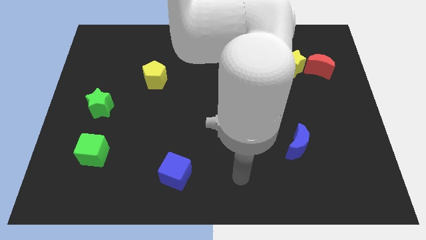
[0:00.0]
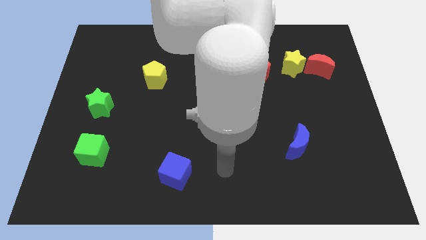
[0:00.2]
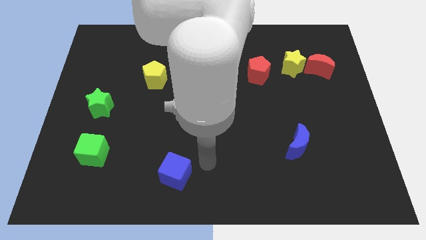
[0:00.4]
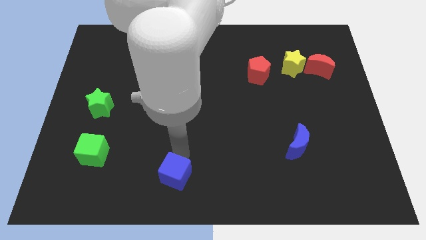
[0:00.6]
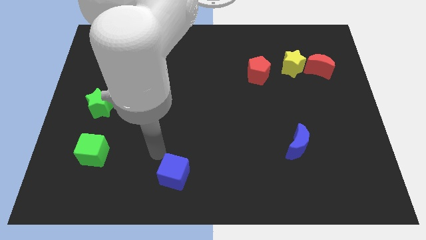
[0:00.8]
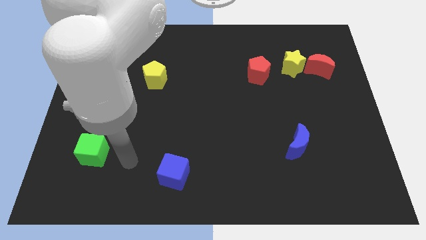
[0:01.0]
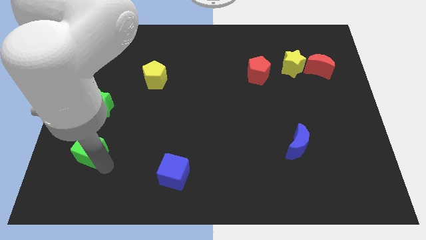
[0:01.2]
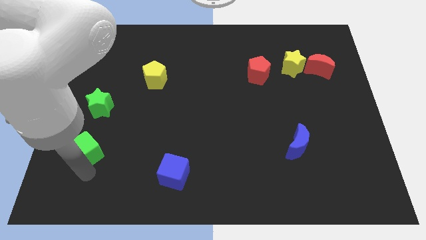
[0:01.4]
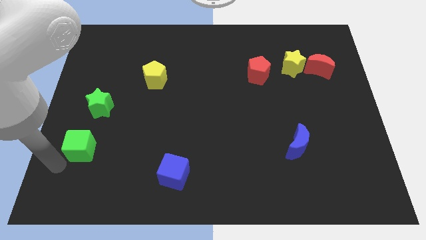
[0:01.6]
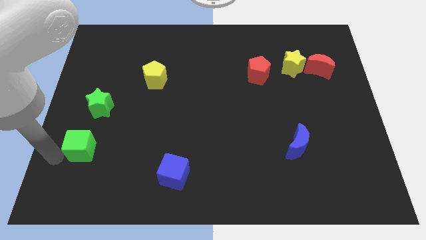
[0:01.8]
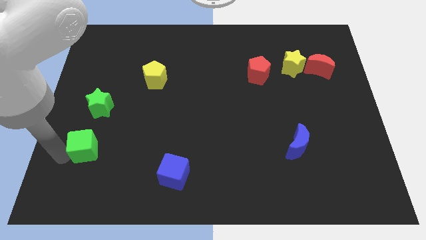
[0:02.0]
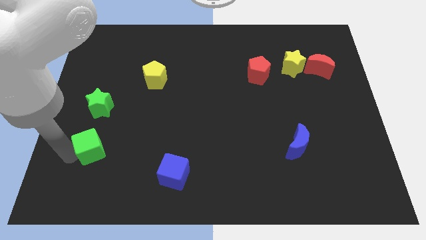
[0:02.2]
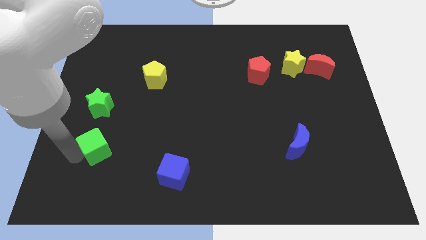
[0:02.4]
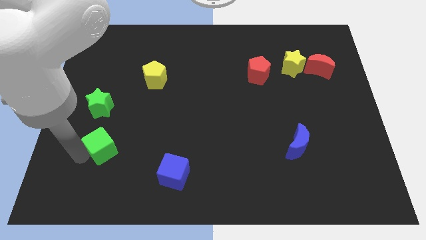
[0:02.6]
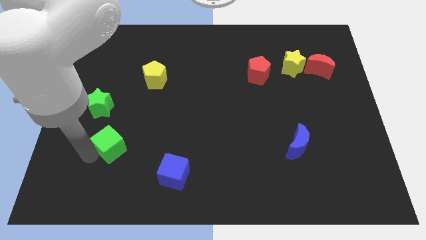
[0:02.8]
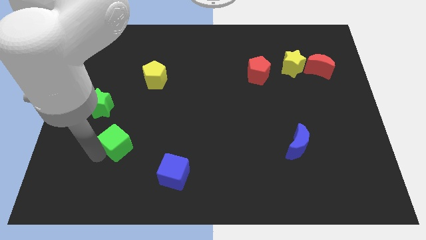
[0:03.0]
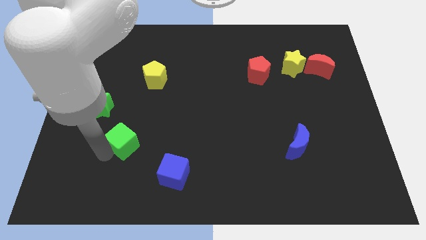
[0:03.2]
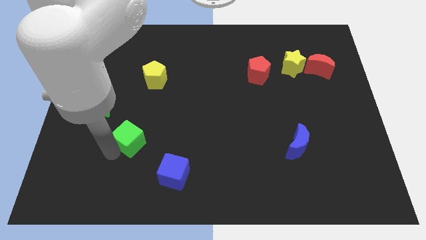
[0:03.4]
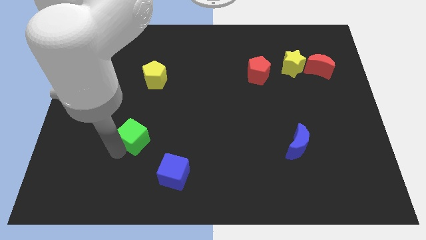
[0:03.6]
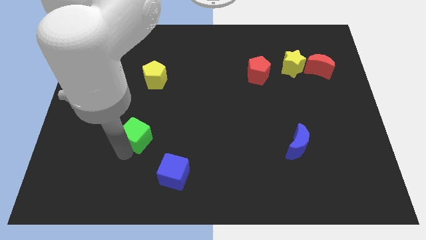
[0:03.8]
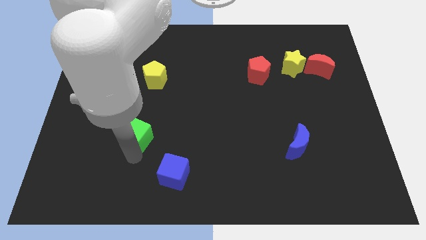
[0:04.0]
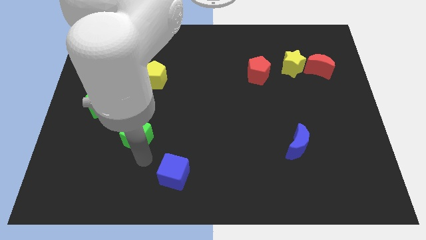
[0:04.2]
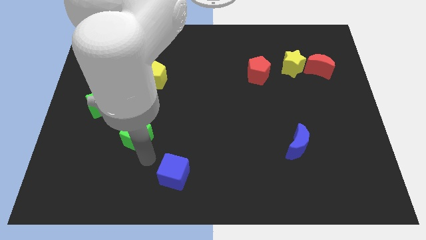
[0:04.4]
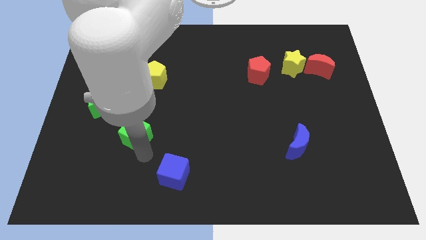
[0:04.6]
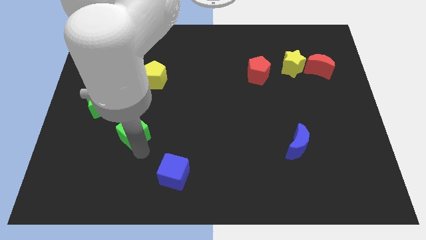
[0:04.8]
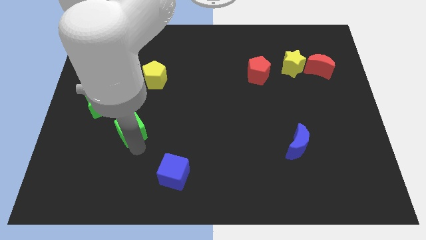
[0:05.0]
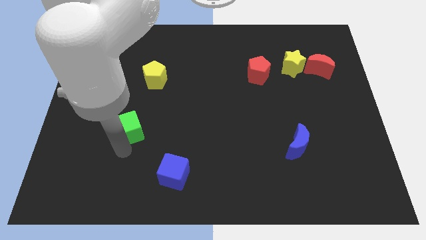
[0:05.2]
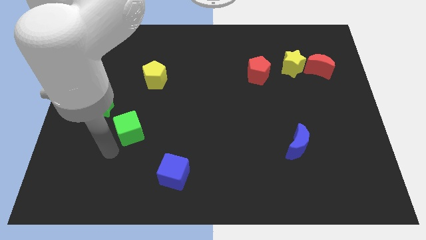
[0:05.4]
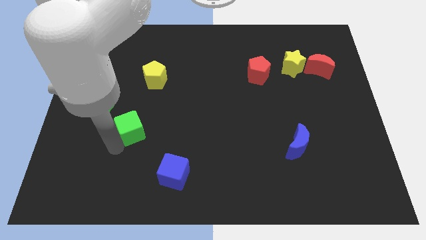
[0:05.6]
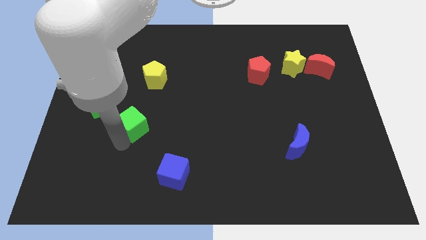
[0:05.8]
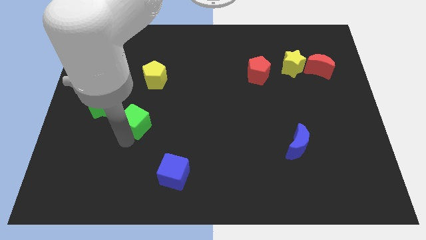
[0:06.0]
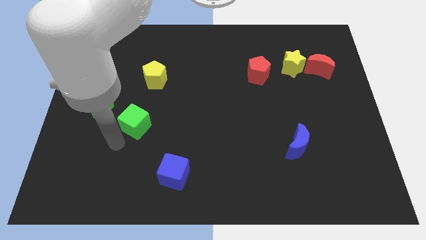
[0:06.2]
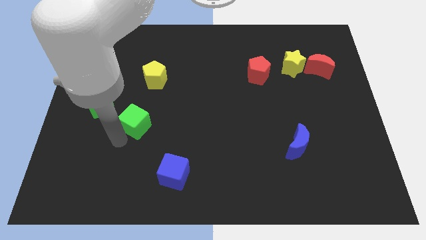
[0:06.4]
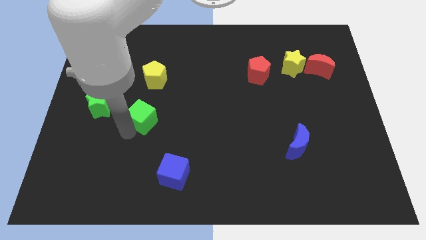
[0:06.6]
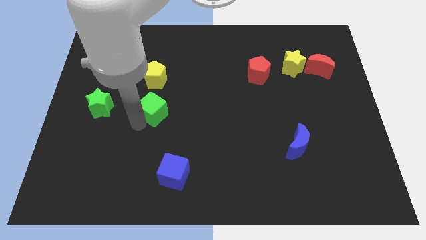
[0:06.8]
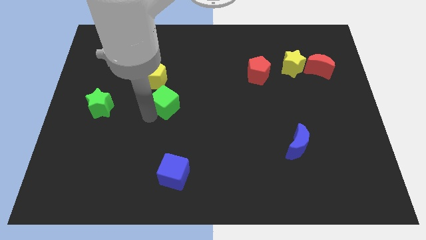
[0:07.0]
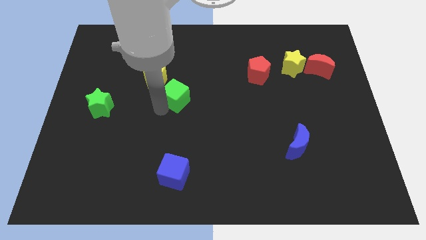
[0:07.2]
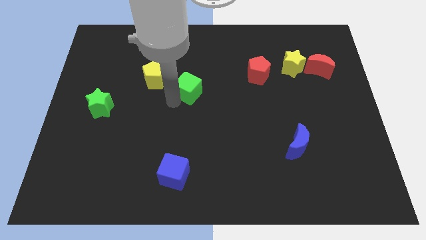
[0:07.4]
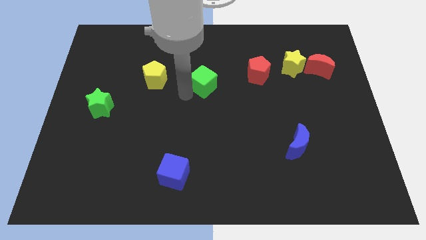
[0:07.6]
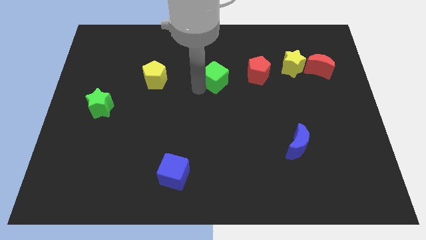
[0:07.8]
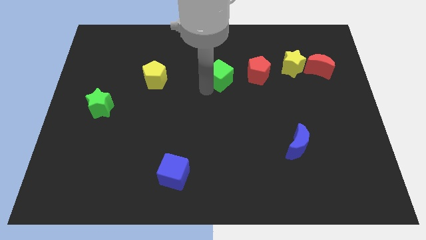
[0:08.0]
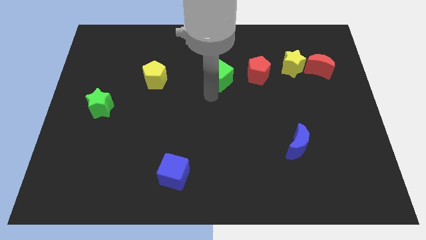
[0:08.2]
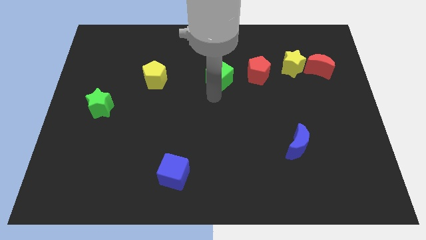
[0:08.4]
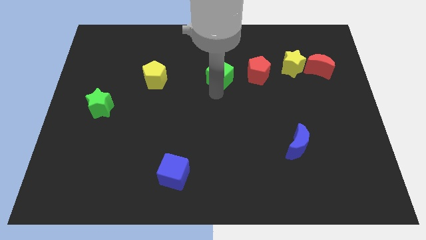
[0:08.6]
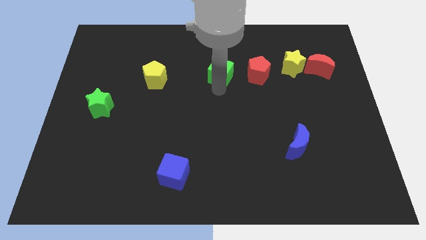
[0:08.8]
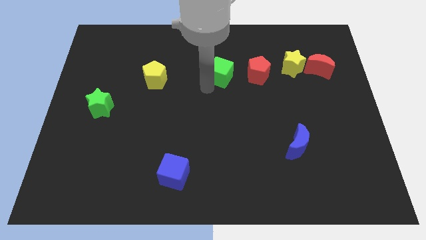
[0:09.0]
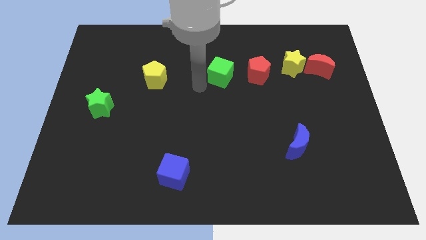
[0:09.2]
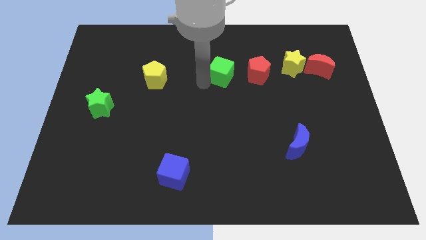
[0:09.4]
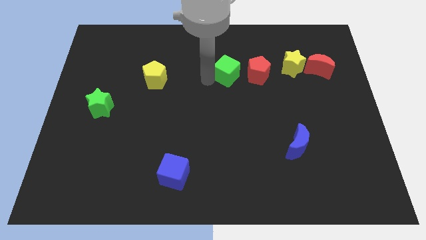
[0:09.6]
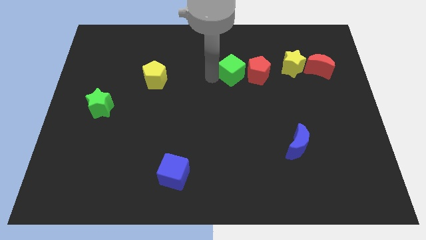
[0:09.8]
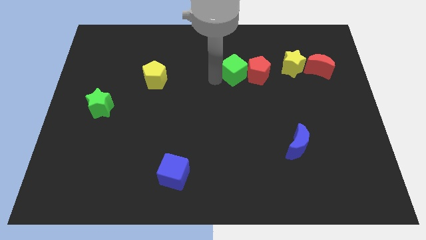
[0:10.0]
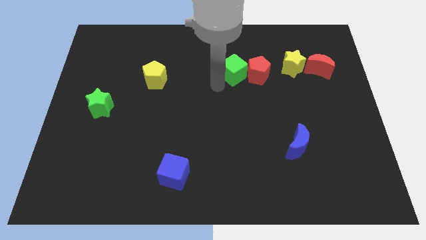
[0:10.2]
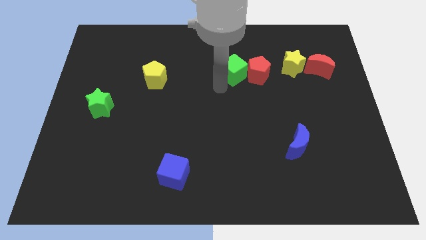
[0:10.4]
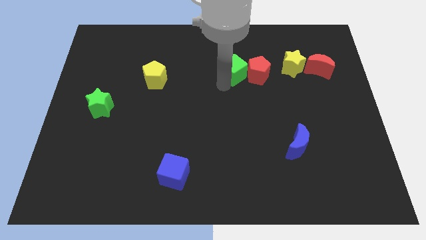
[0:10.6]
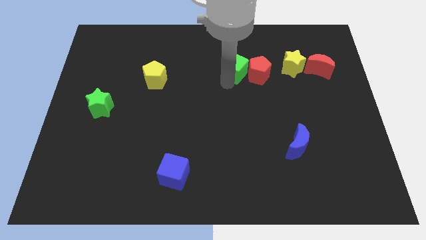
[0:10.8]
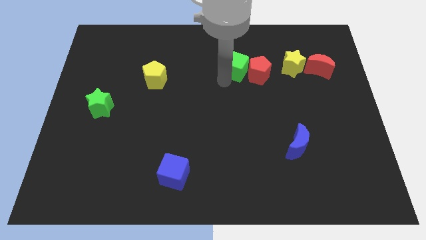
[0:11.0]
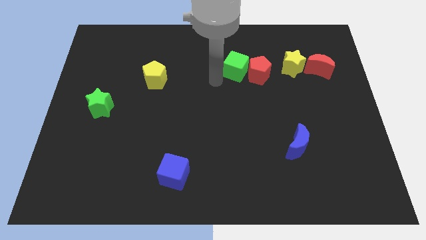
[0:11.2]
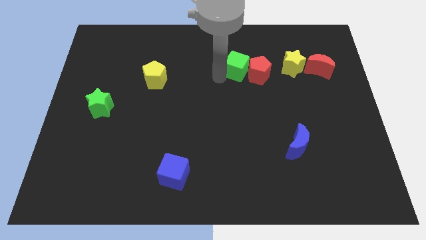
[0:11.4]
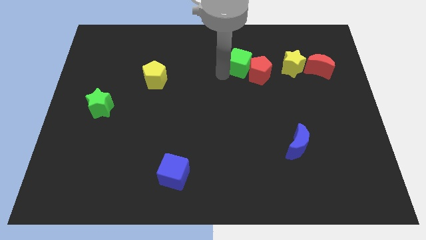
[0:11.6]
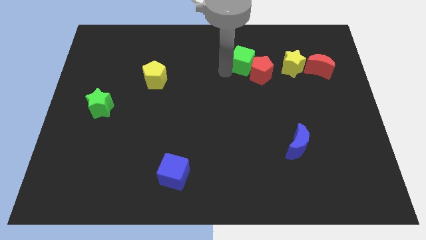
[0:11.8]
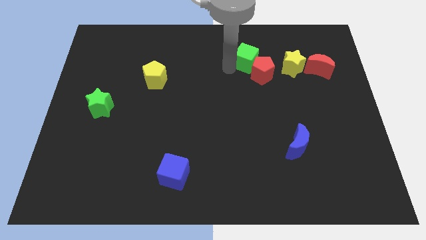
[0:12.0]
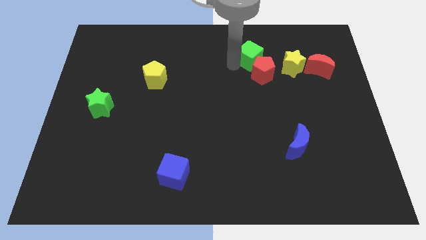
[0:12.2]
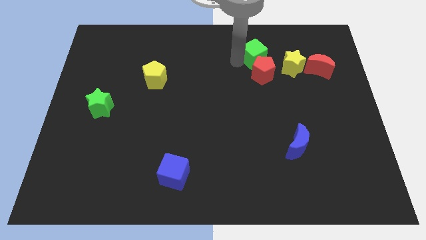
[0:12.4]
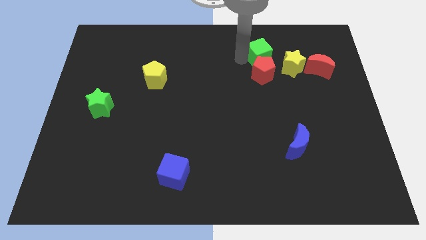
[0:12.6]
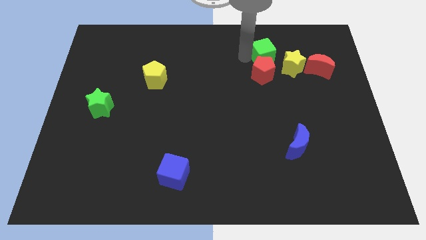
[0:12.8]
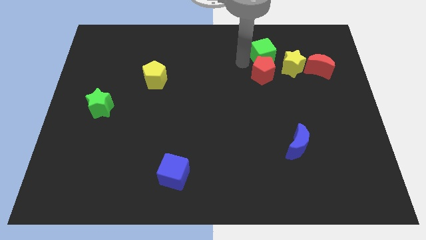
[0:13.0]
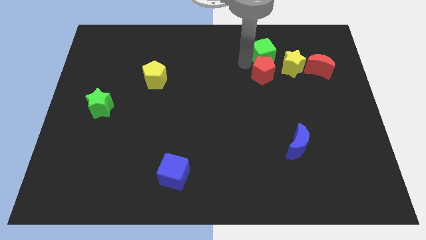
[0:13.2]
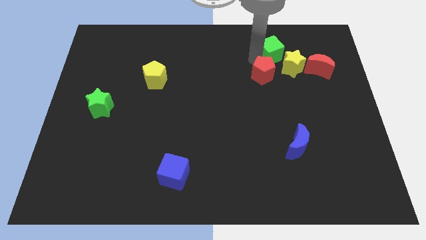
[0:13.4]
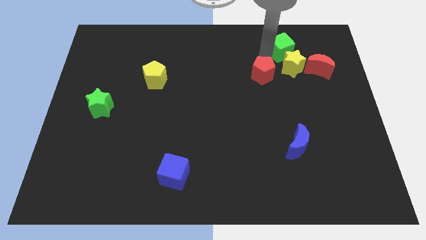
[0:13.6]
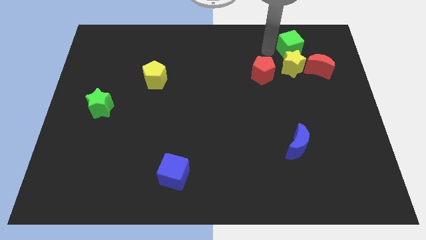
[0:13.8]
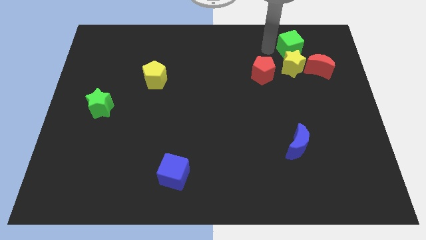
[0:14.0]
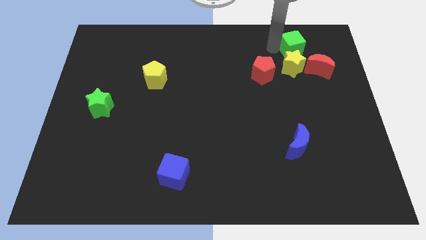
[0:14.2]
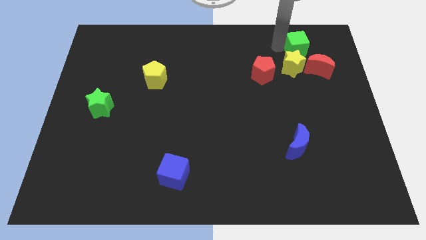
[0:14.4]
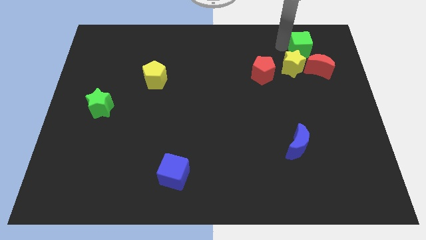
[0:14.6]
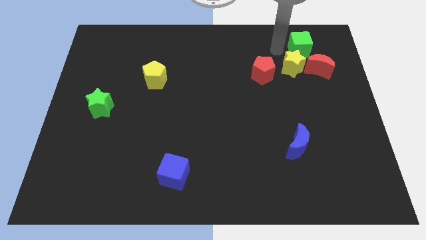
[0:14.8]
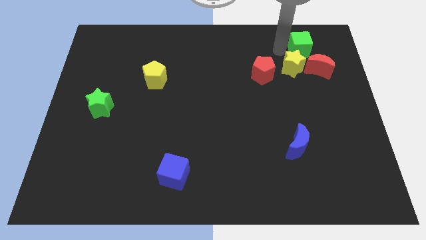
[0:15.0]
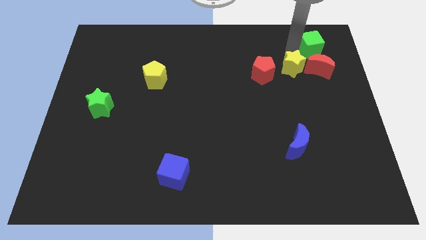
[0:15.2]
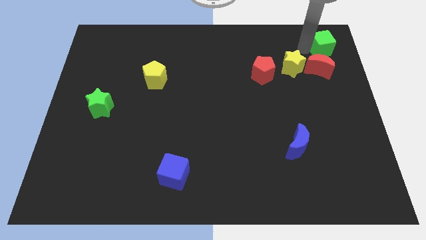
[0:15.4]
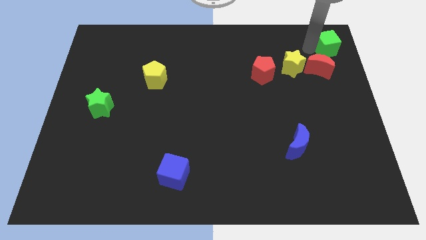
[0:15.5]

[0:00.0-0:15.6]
push the green cube to the top right corner
